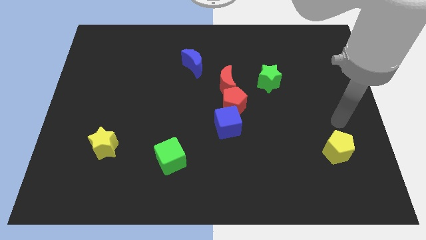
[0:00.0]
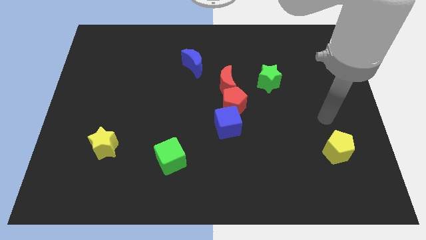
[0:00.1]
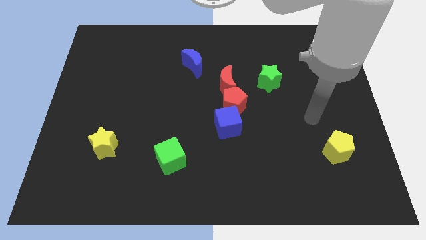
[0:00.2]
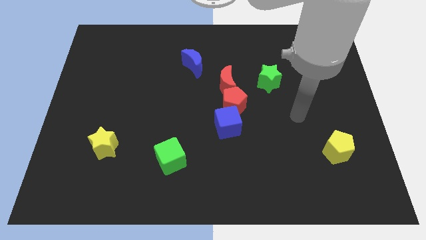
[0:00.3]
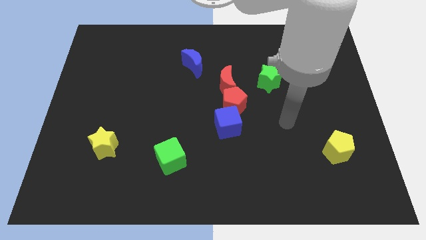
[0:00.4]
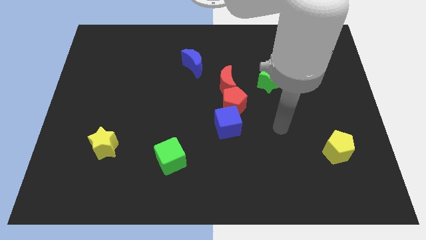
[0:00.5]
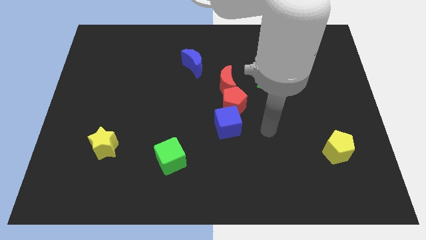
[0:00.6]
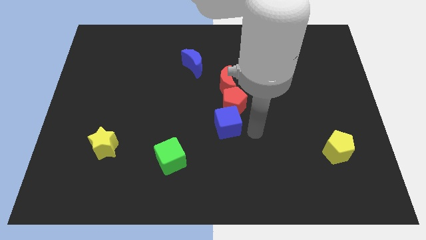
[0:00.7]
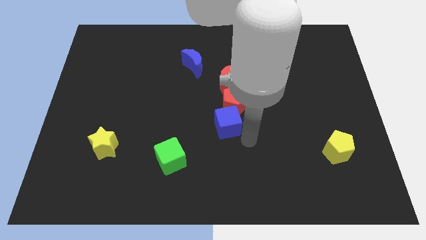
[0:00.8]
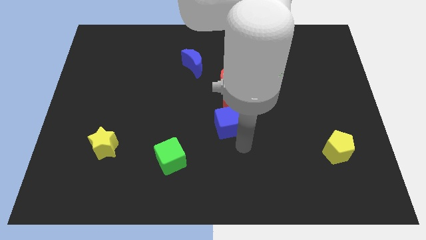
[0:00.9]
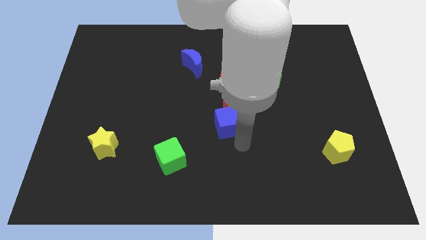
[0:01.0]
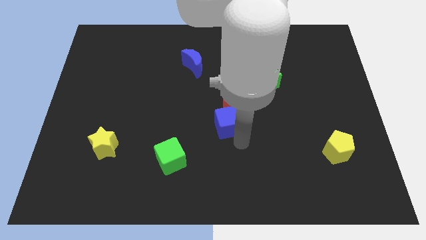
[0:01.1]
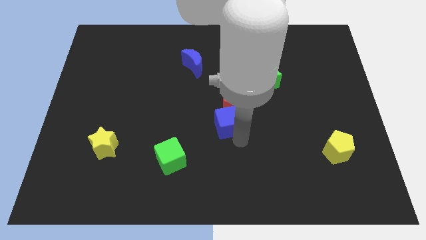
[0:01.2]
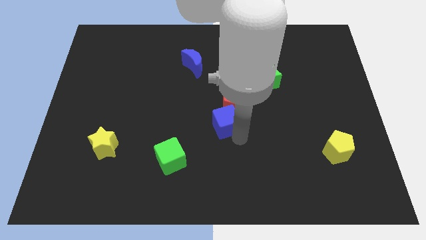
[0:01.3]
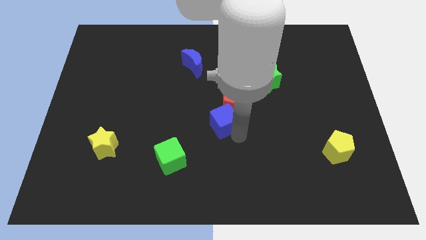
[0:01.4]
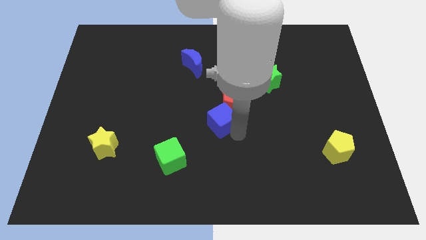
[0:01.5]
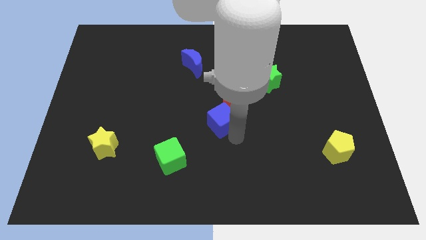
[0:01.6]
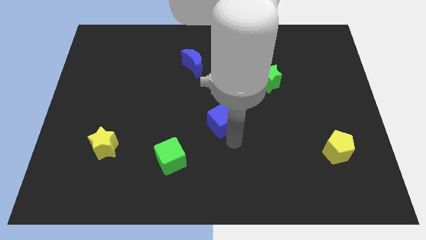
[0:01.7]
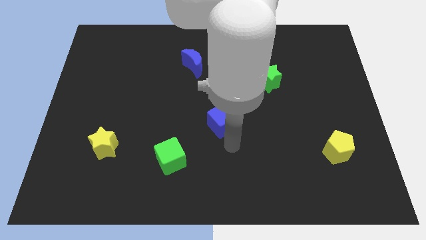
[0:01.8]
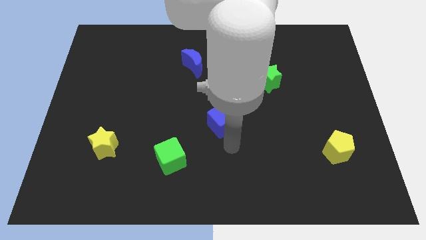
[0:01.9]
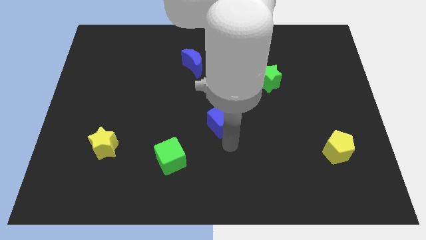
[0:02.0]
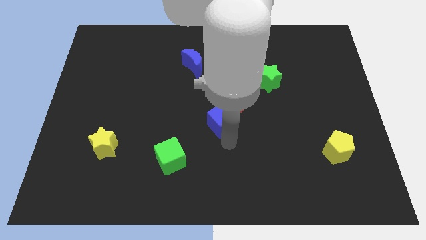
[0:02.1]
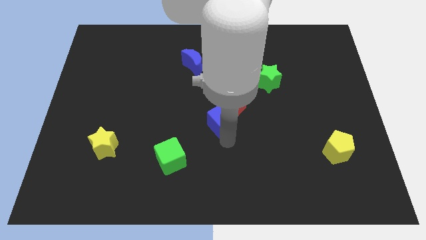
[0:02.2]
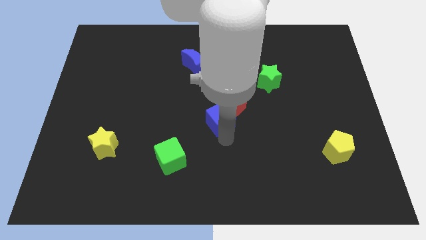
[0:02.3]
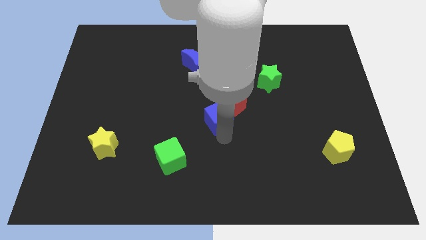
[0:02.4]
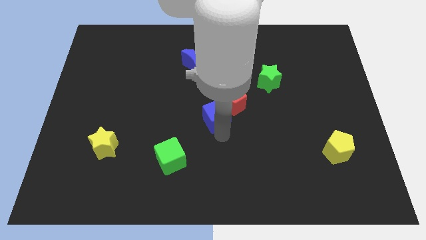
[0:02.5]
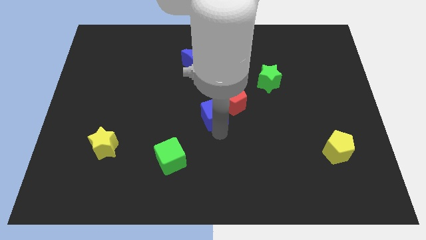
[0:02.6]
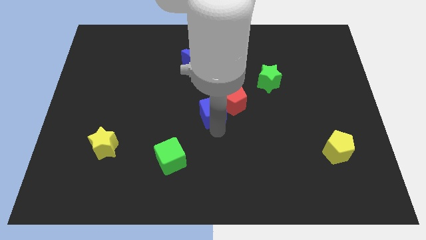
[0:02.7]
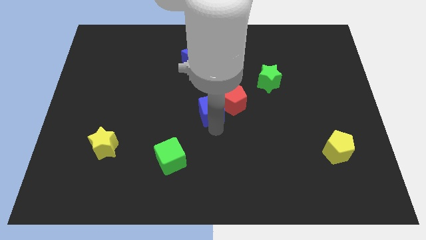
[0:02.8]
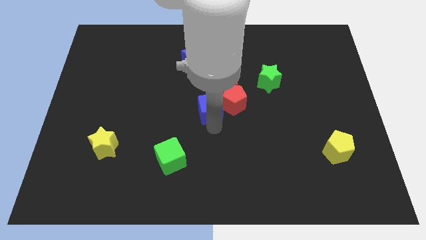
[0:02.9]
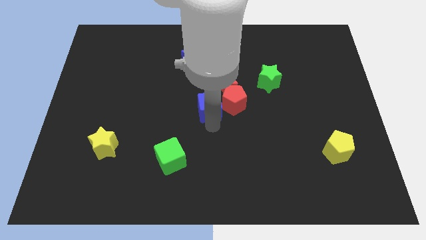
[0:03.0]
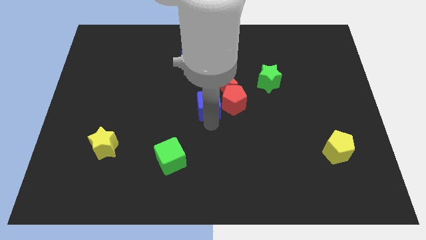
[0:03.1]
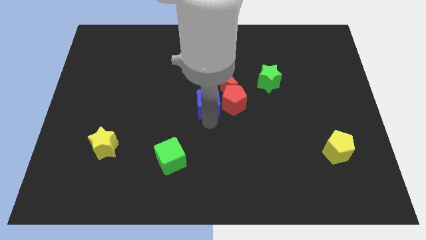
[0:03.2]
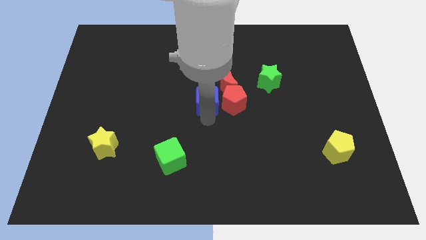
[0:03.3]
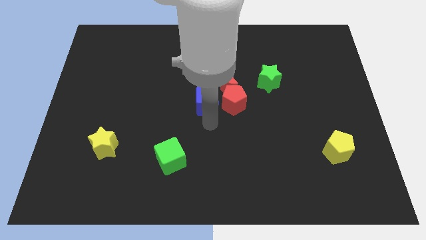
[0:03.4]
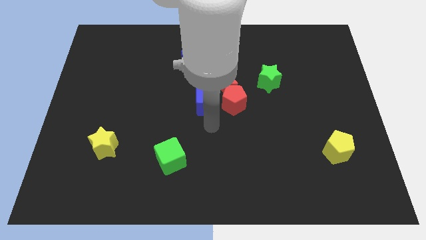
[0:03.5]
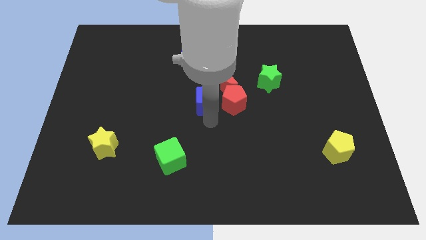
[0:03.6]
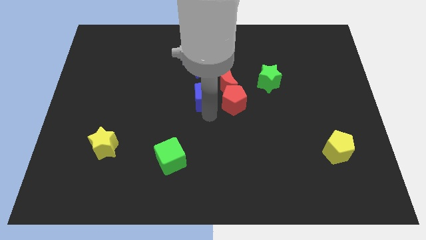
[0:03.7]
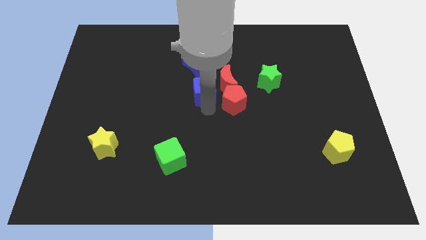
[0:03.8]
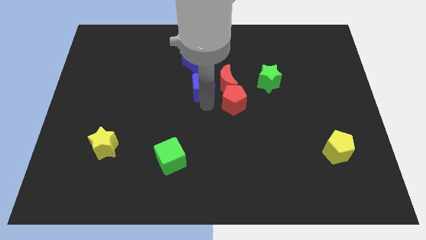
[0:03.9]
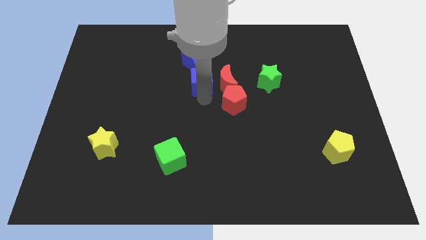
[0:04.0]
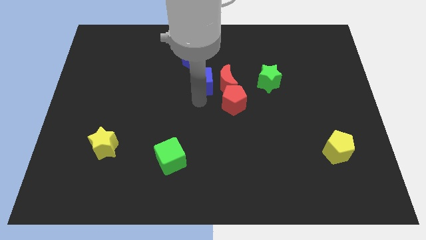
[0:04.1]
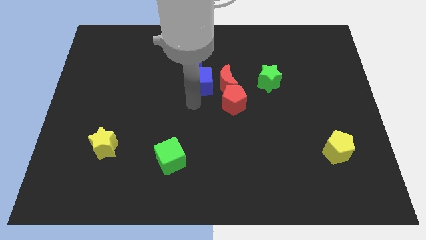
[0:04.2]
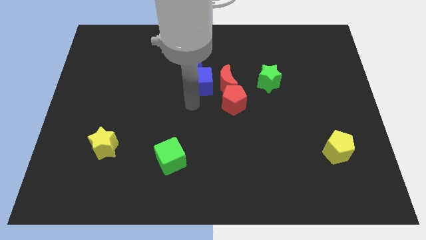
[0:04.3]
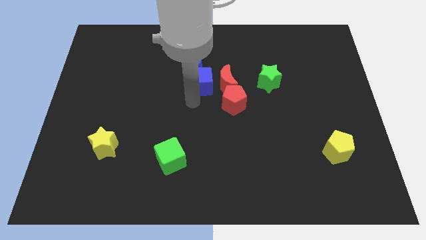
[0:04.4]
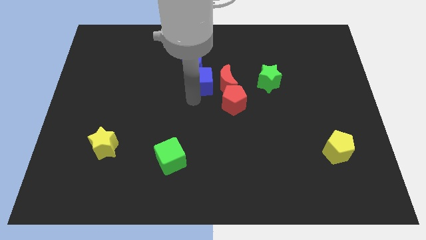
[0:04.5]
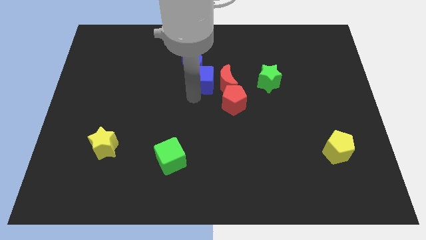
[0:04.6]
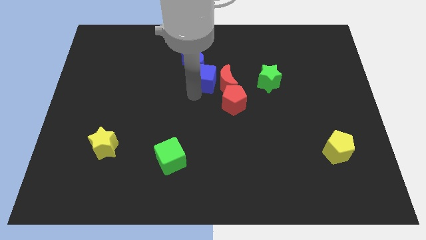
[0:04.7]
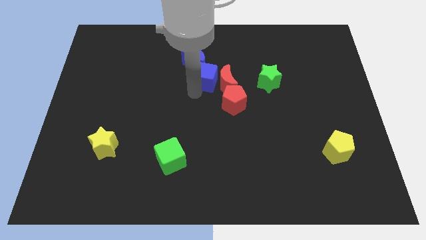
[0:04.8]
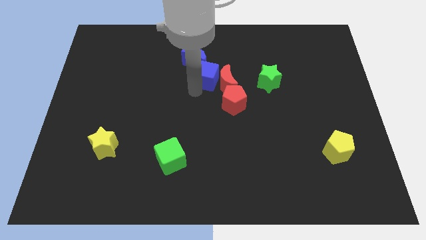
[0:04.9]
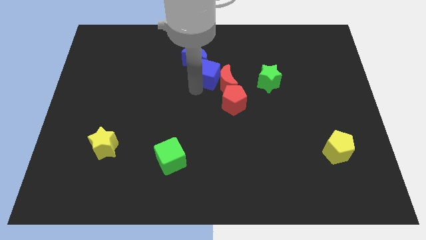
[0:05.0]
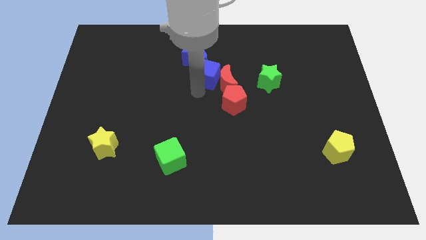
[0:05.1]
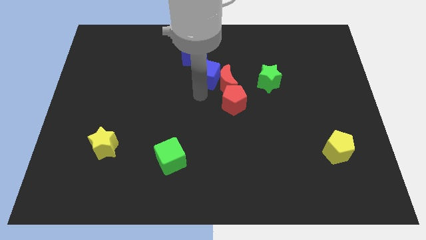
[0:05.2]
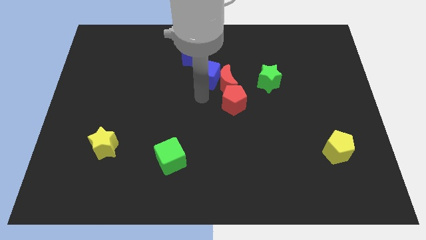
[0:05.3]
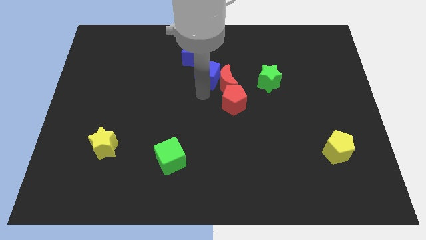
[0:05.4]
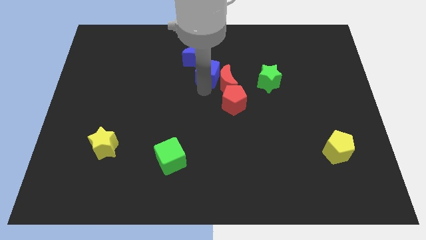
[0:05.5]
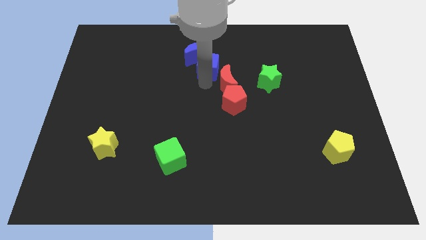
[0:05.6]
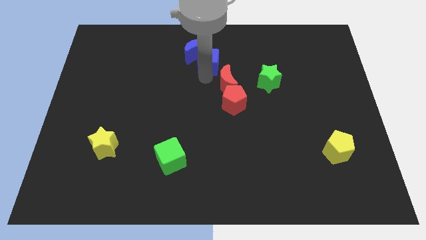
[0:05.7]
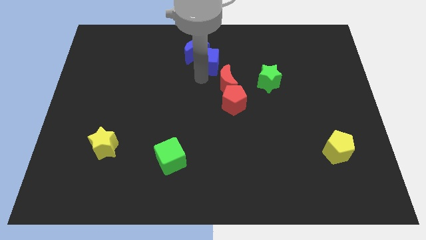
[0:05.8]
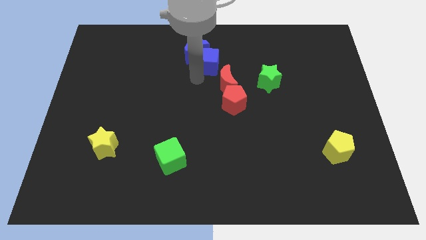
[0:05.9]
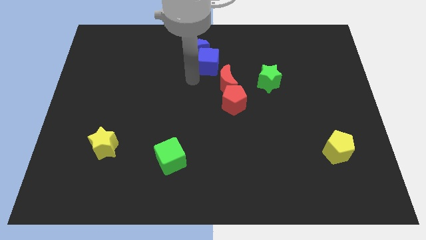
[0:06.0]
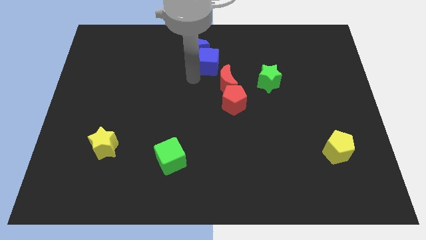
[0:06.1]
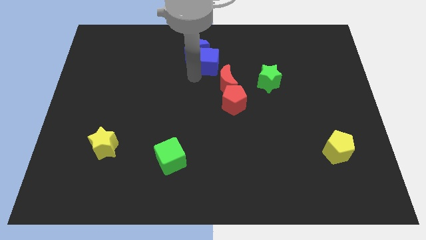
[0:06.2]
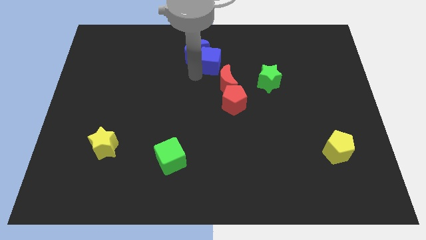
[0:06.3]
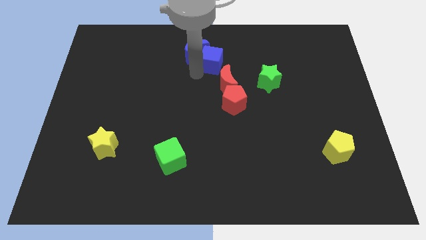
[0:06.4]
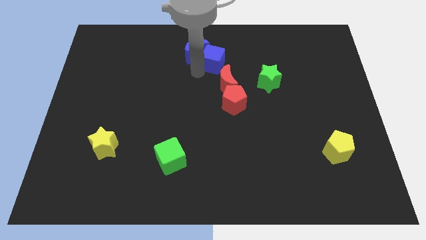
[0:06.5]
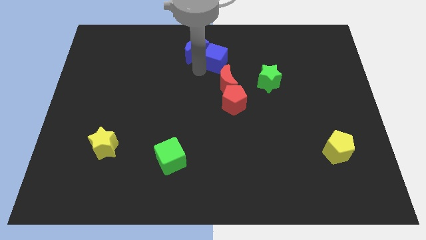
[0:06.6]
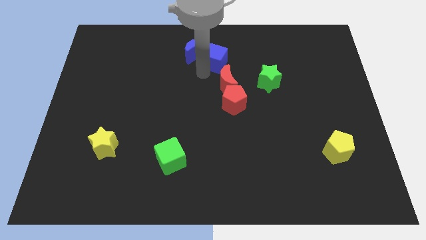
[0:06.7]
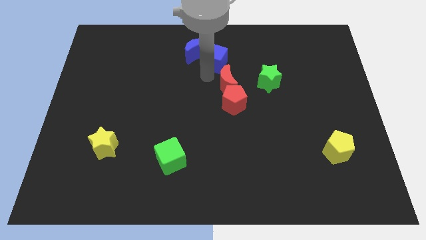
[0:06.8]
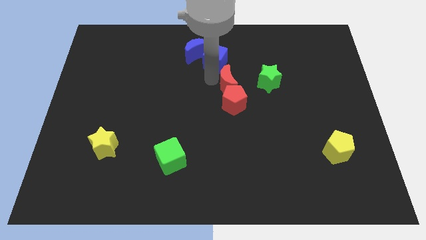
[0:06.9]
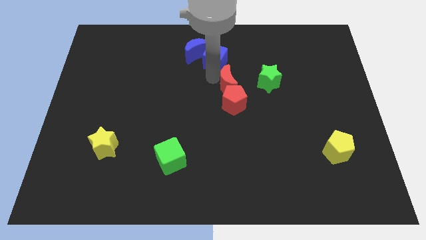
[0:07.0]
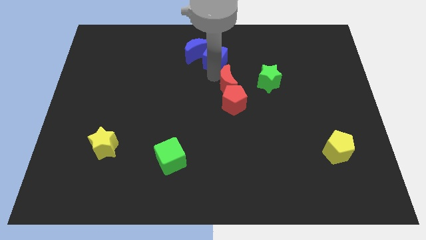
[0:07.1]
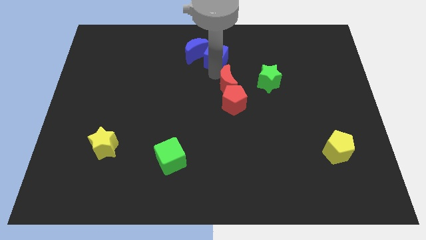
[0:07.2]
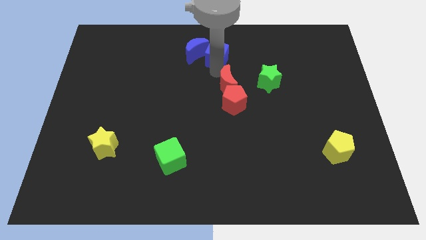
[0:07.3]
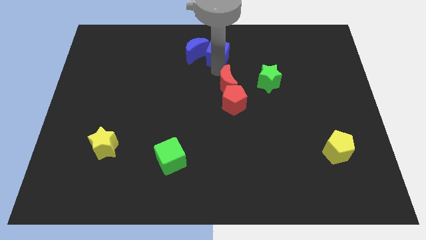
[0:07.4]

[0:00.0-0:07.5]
put the blue cube to the towards your base
